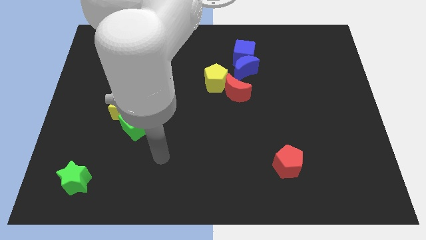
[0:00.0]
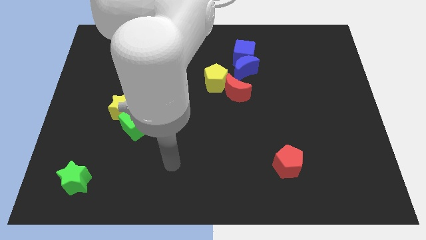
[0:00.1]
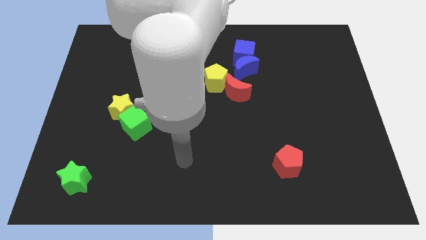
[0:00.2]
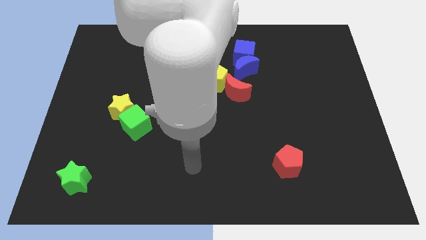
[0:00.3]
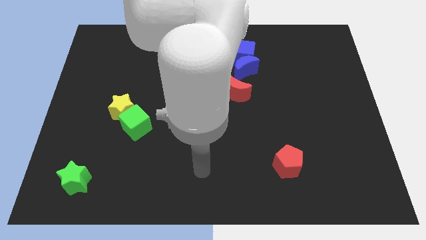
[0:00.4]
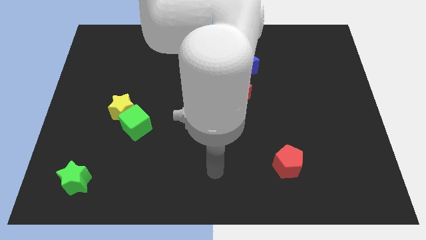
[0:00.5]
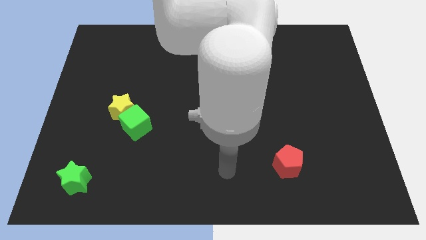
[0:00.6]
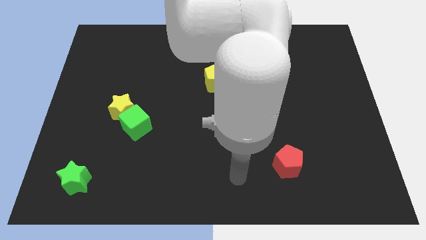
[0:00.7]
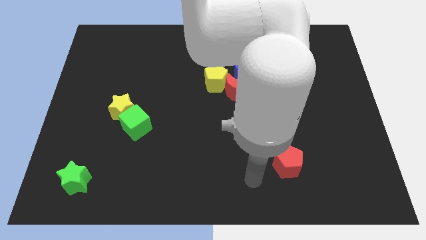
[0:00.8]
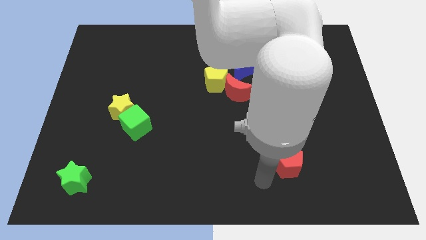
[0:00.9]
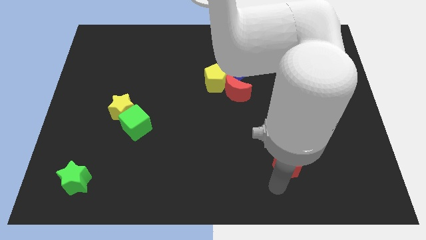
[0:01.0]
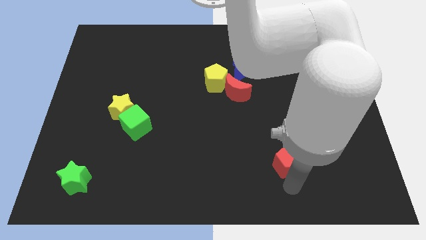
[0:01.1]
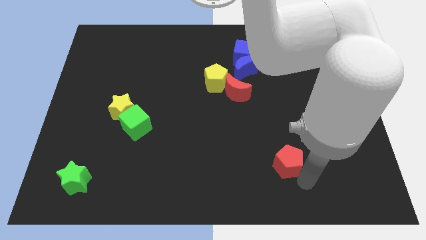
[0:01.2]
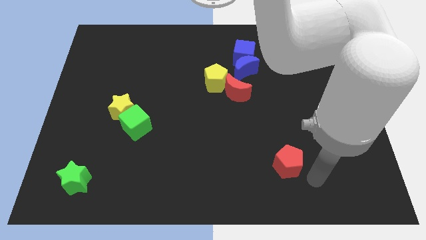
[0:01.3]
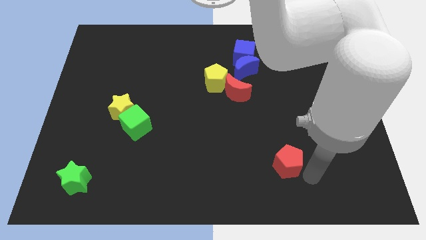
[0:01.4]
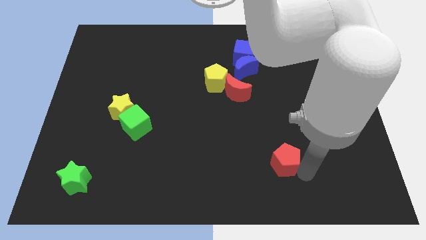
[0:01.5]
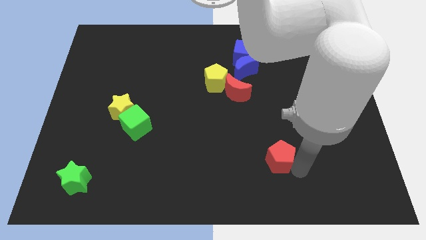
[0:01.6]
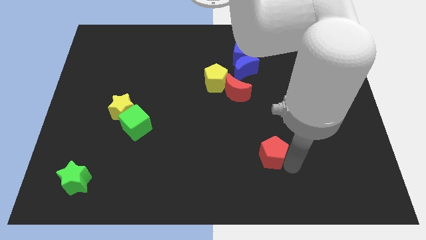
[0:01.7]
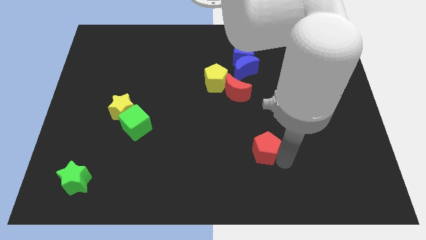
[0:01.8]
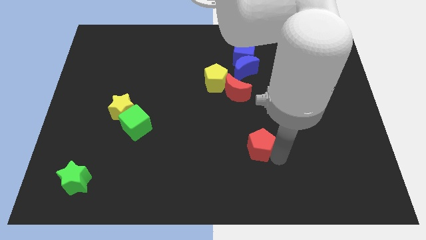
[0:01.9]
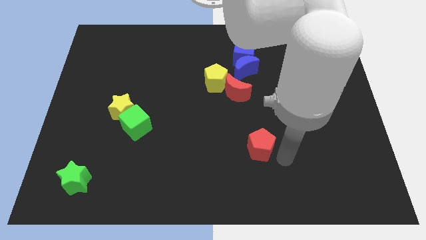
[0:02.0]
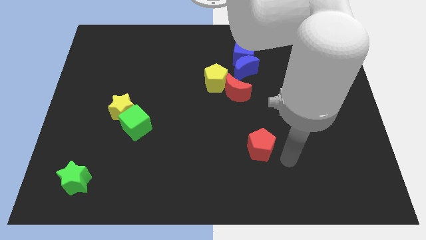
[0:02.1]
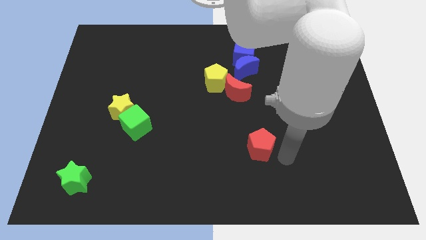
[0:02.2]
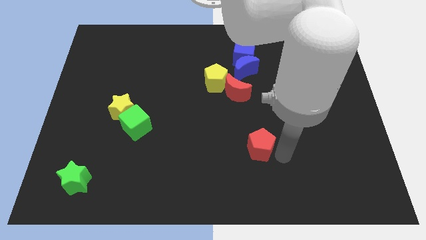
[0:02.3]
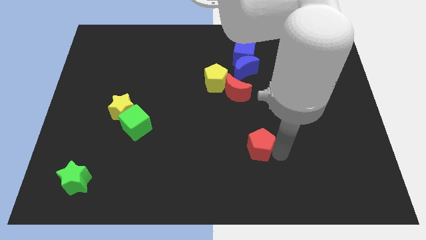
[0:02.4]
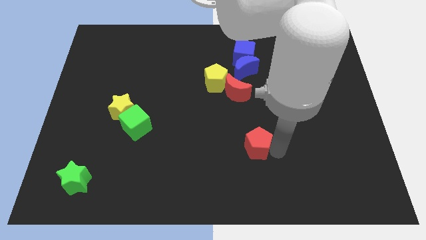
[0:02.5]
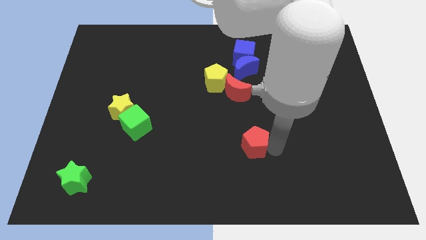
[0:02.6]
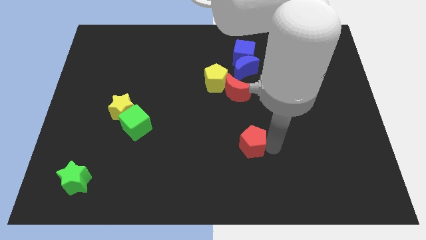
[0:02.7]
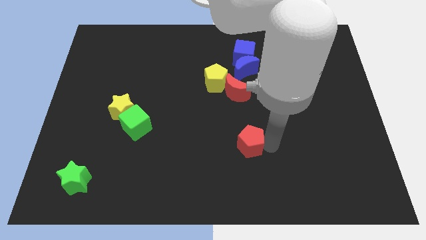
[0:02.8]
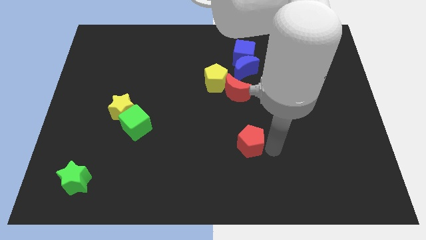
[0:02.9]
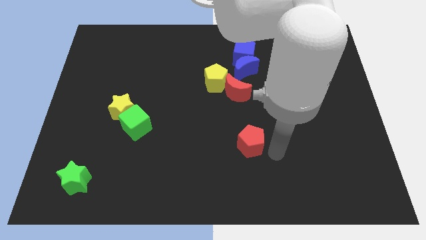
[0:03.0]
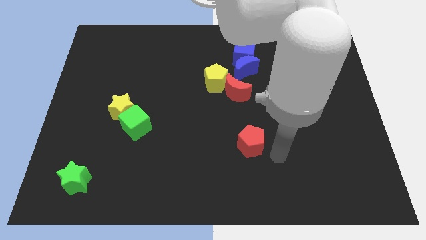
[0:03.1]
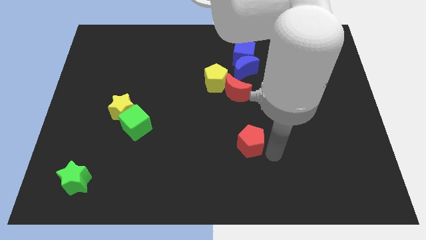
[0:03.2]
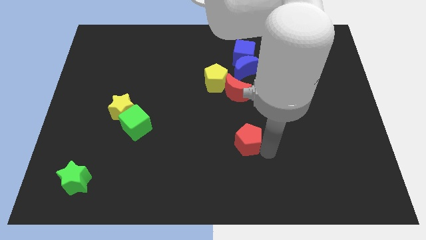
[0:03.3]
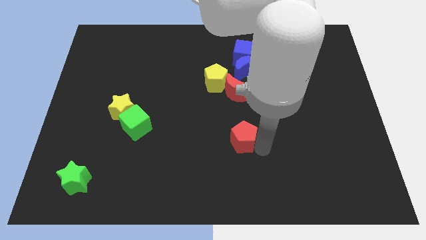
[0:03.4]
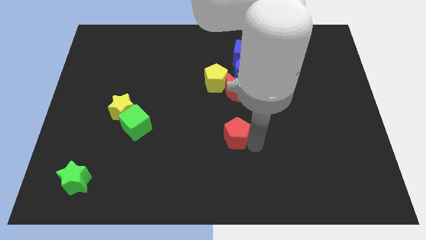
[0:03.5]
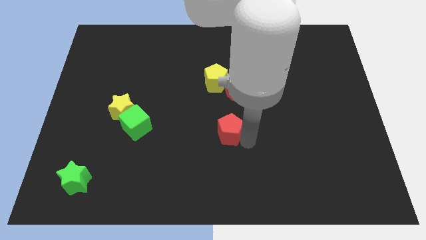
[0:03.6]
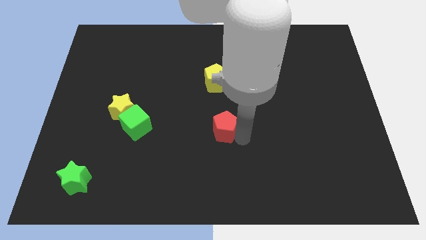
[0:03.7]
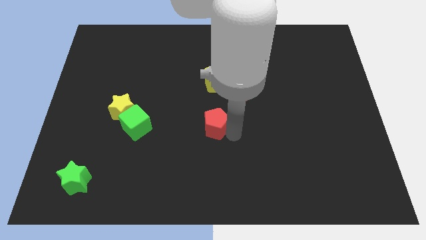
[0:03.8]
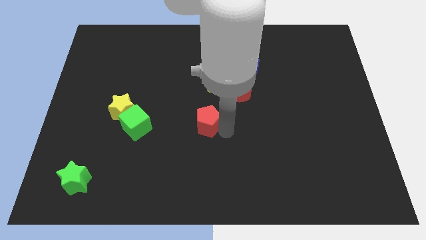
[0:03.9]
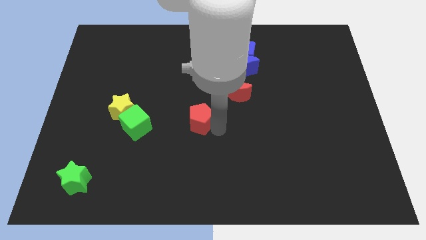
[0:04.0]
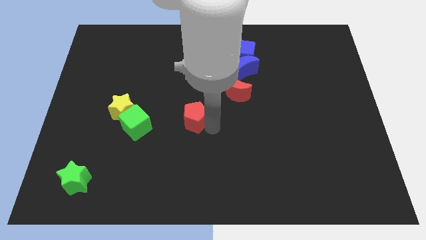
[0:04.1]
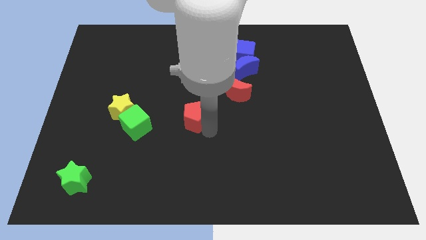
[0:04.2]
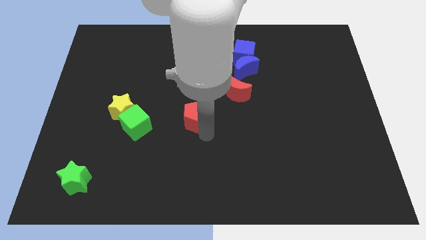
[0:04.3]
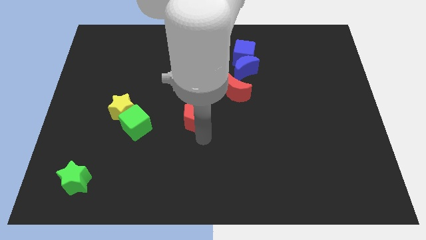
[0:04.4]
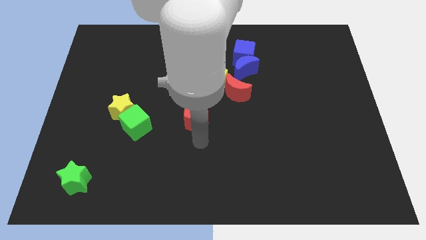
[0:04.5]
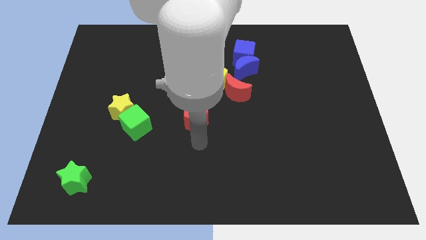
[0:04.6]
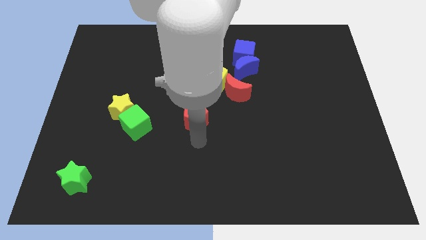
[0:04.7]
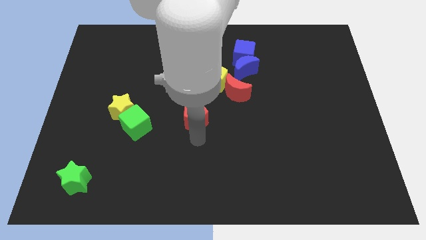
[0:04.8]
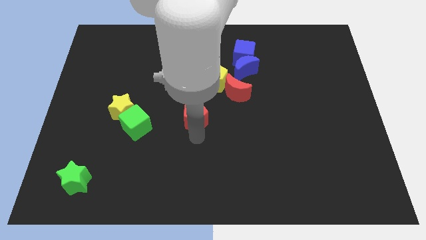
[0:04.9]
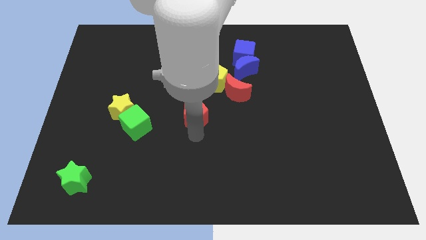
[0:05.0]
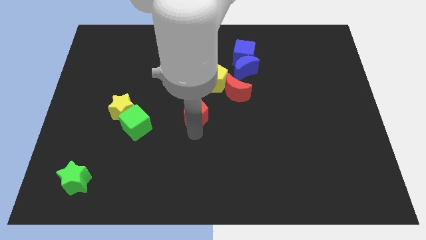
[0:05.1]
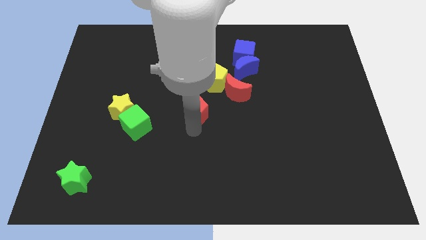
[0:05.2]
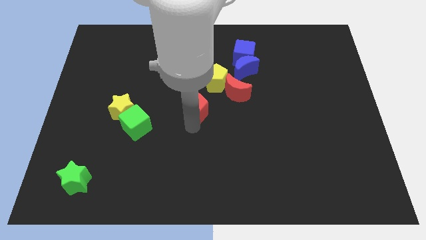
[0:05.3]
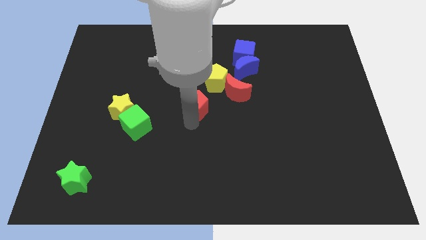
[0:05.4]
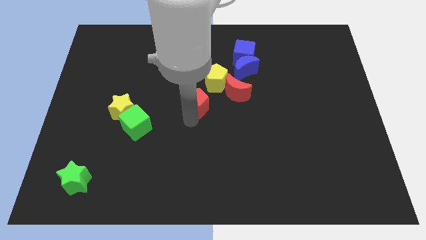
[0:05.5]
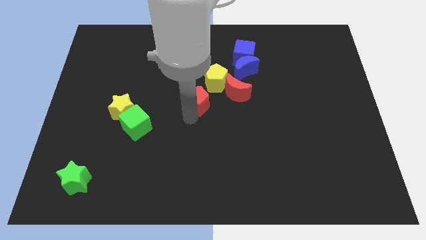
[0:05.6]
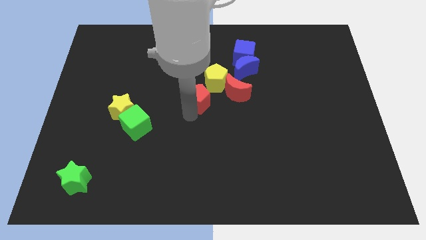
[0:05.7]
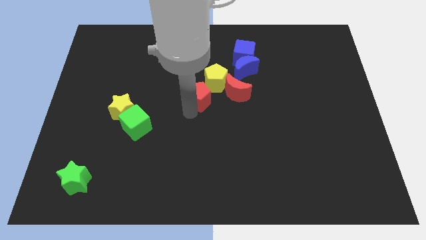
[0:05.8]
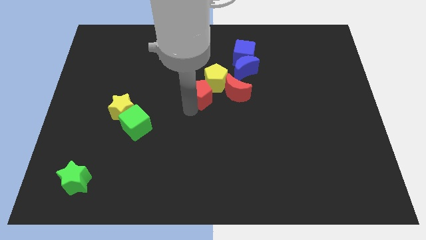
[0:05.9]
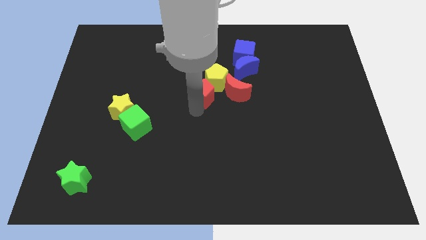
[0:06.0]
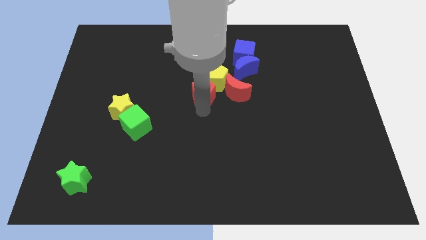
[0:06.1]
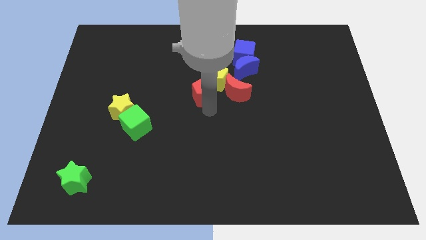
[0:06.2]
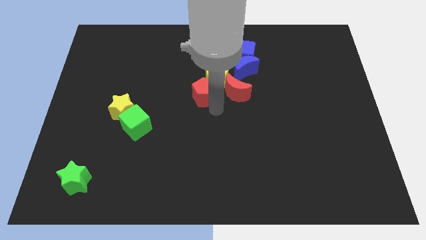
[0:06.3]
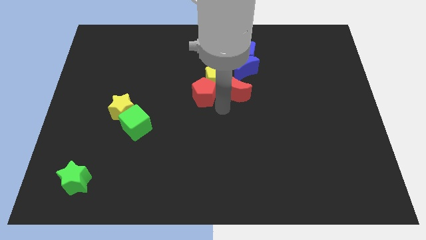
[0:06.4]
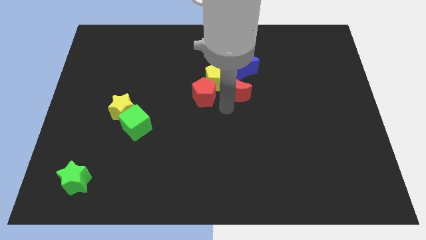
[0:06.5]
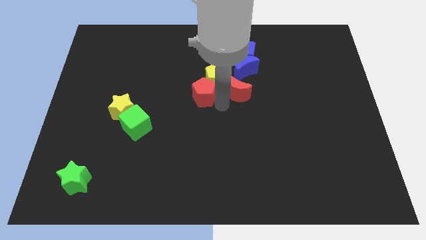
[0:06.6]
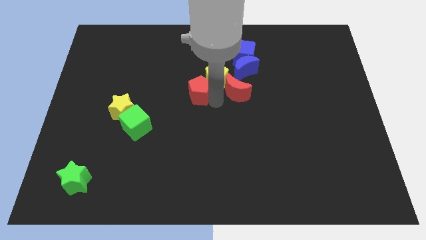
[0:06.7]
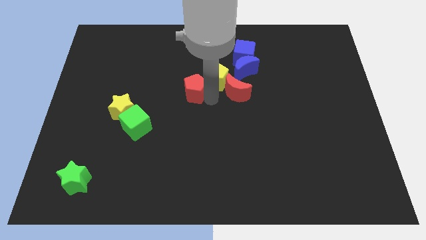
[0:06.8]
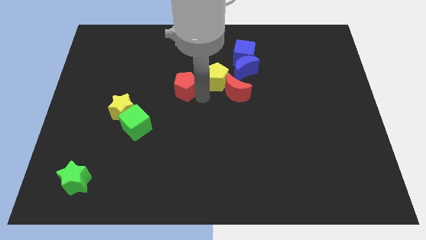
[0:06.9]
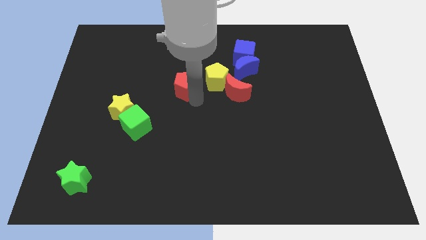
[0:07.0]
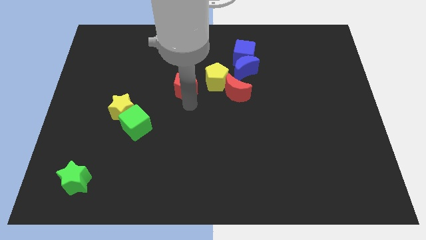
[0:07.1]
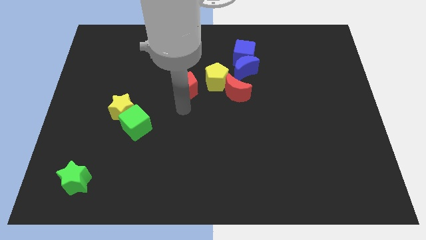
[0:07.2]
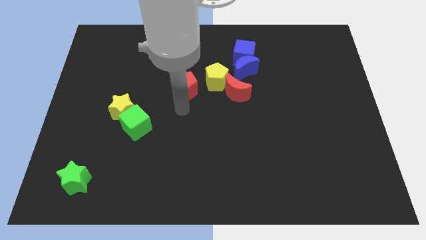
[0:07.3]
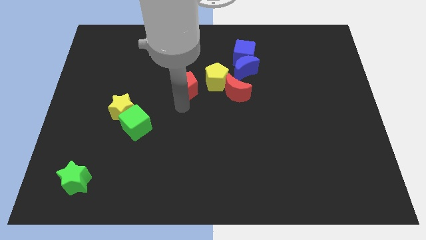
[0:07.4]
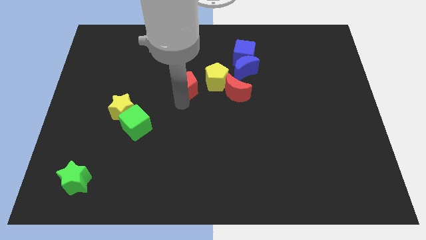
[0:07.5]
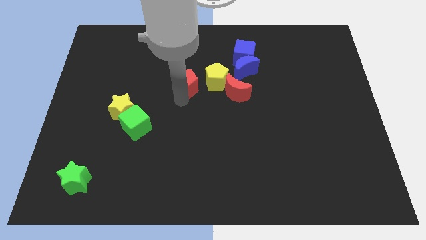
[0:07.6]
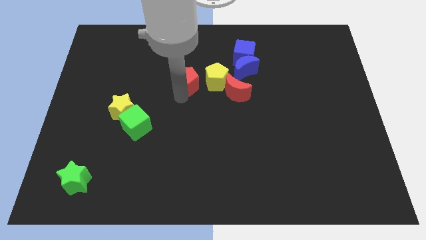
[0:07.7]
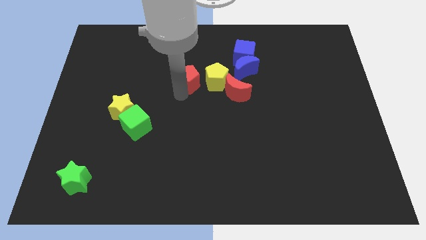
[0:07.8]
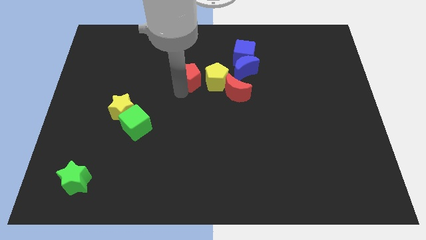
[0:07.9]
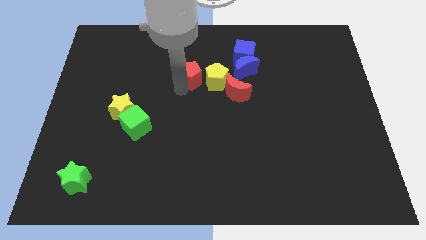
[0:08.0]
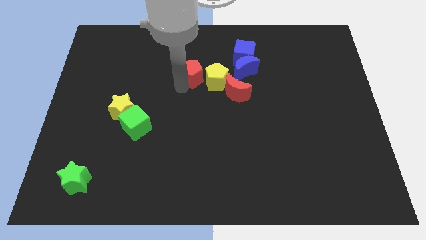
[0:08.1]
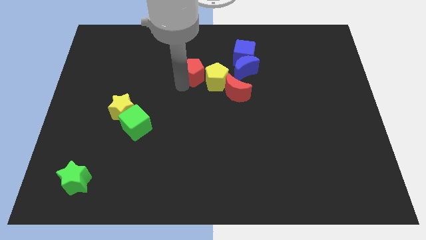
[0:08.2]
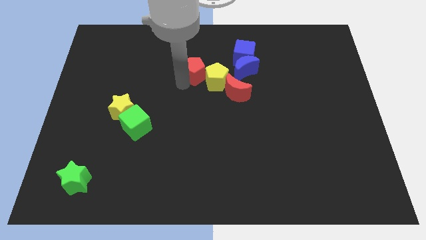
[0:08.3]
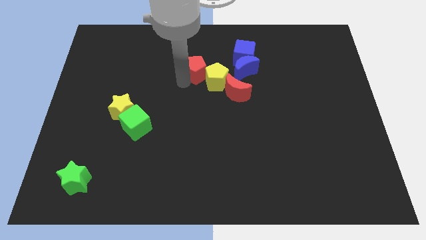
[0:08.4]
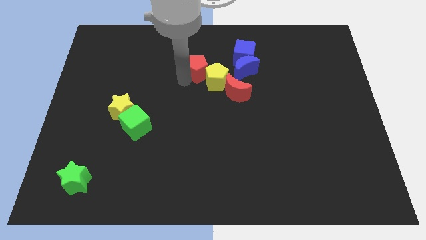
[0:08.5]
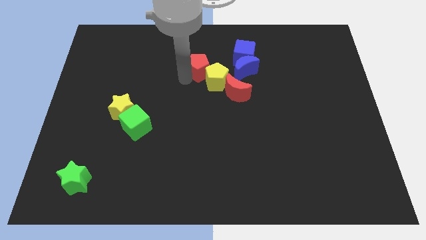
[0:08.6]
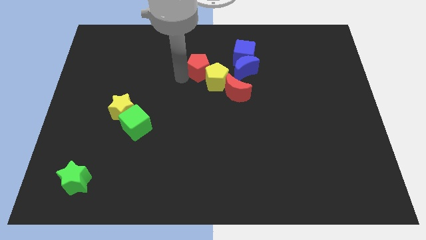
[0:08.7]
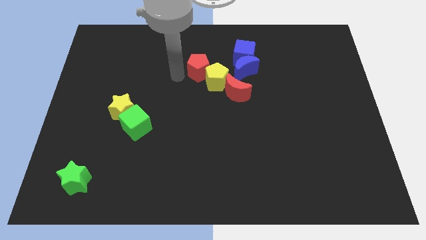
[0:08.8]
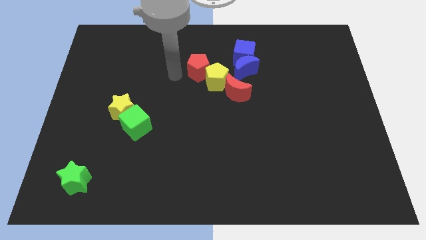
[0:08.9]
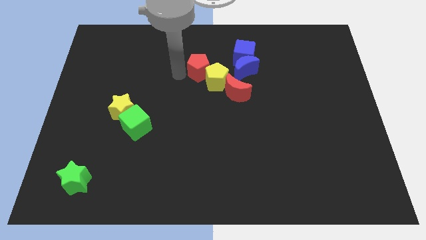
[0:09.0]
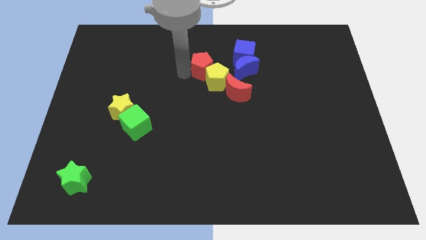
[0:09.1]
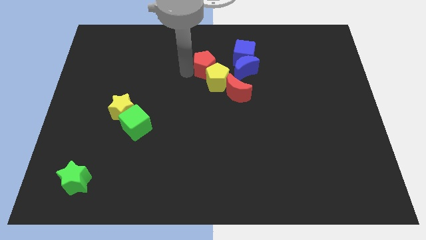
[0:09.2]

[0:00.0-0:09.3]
slide the red pentagon to the bottom left side of the blue cube
